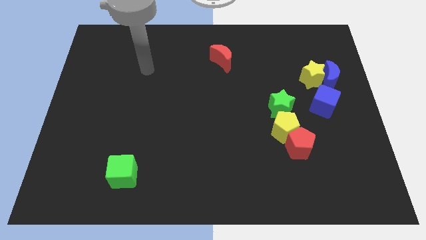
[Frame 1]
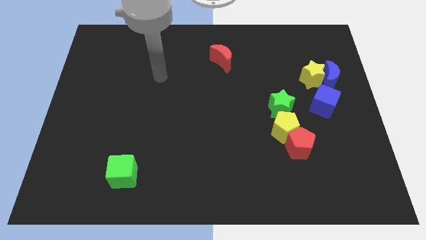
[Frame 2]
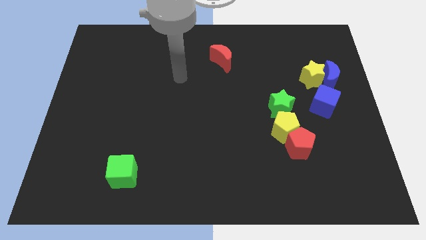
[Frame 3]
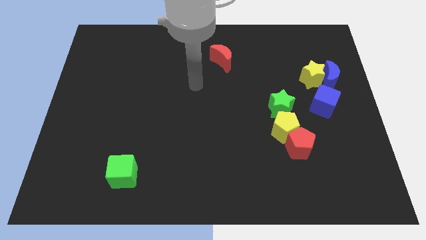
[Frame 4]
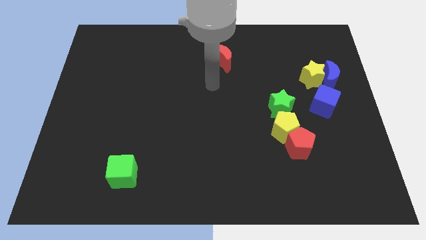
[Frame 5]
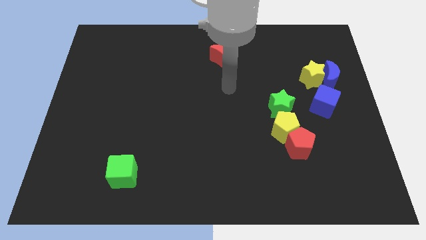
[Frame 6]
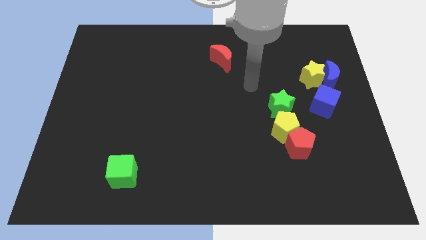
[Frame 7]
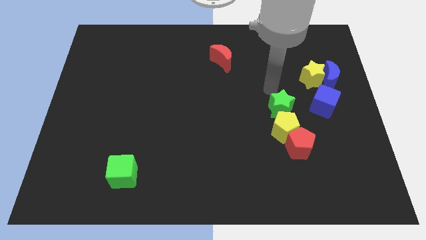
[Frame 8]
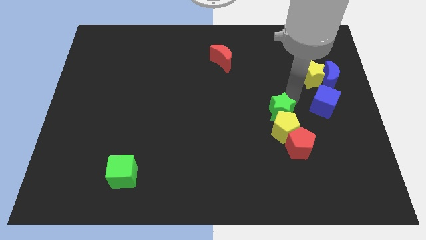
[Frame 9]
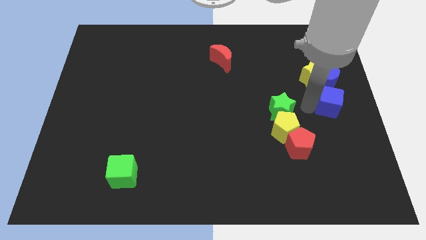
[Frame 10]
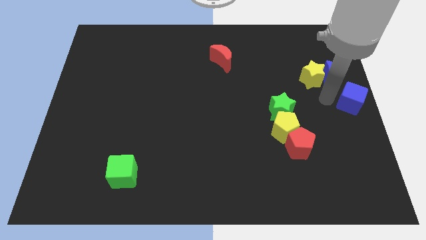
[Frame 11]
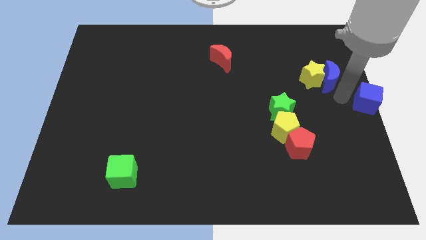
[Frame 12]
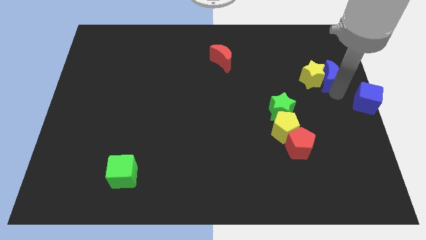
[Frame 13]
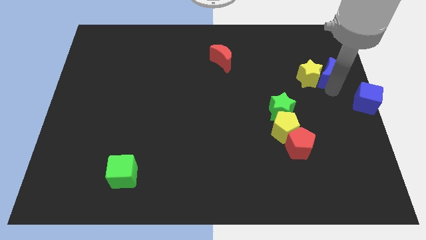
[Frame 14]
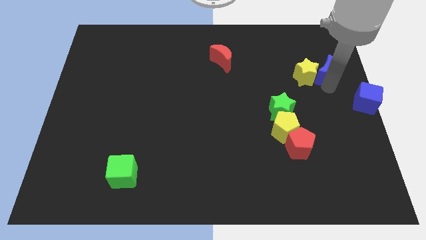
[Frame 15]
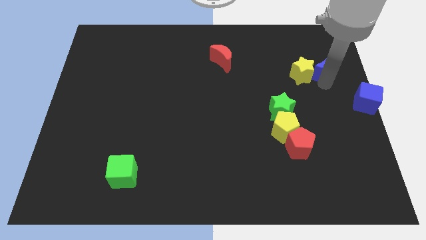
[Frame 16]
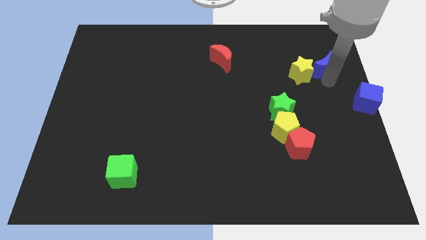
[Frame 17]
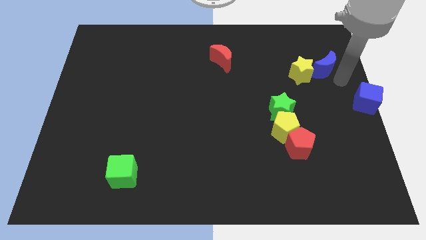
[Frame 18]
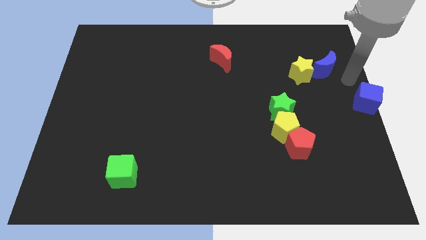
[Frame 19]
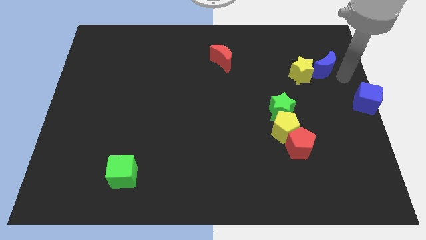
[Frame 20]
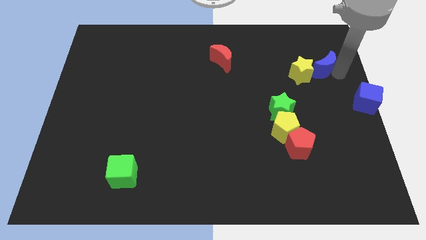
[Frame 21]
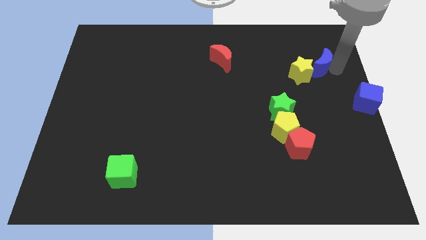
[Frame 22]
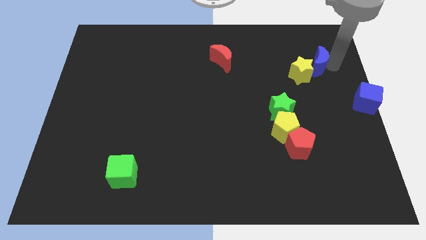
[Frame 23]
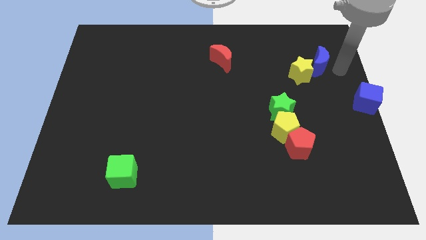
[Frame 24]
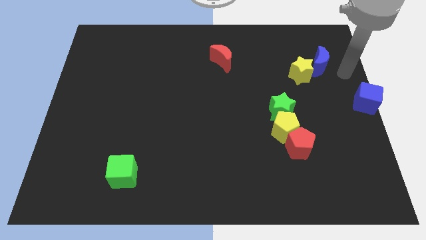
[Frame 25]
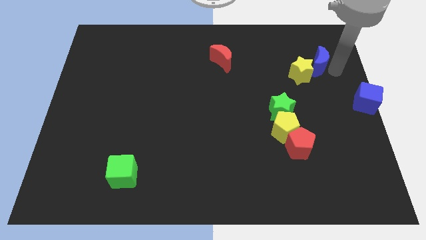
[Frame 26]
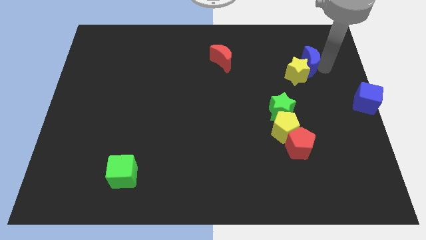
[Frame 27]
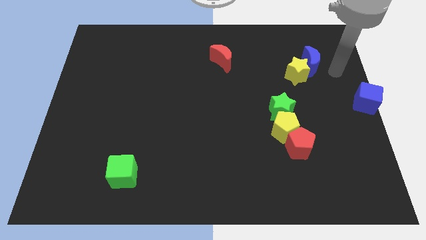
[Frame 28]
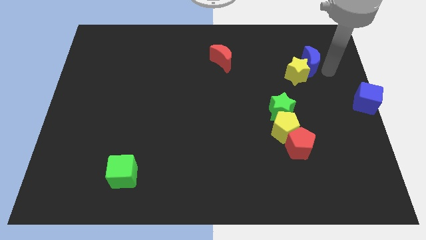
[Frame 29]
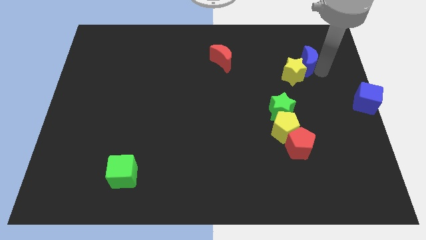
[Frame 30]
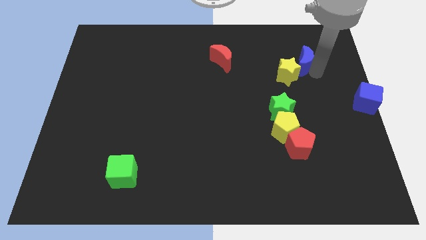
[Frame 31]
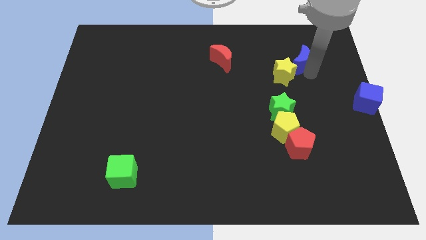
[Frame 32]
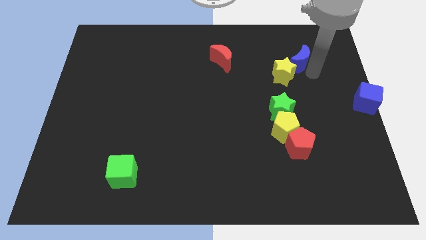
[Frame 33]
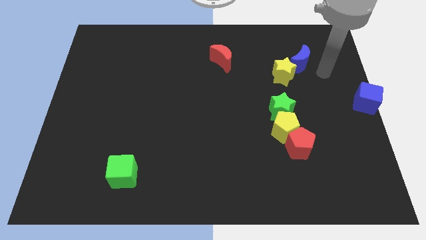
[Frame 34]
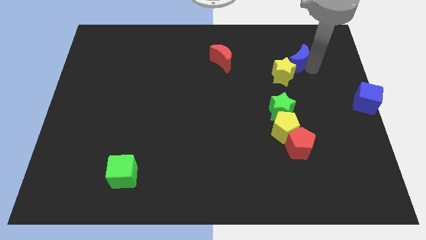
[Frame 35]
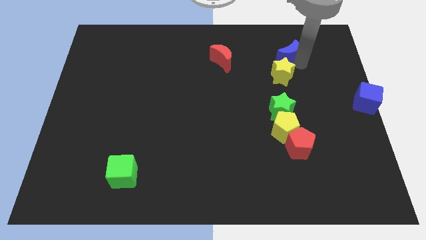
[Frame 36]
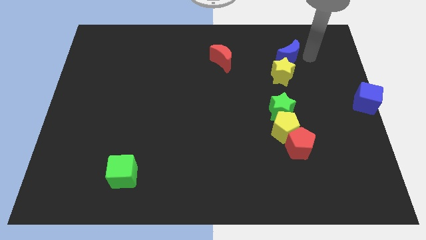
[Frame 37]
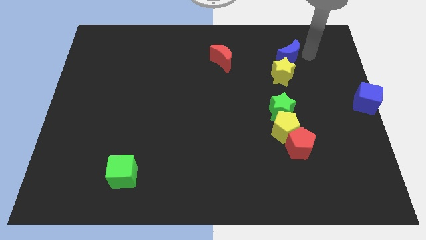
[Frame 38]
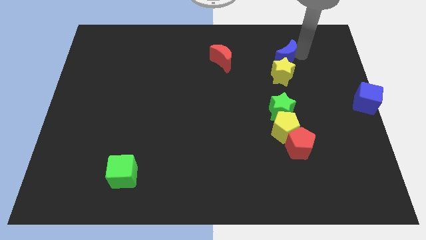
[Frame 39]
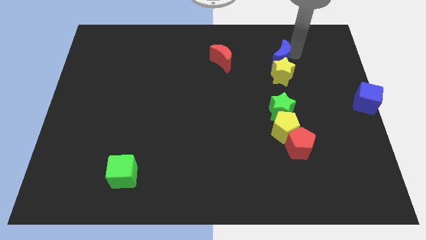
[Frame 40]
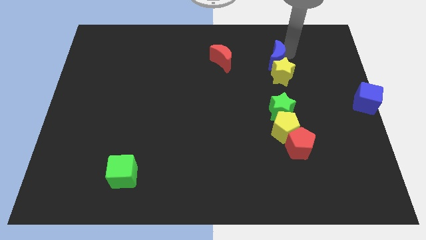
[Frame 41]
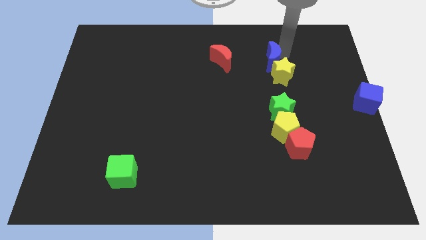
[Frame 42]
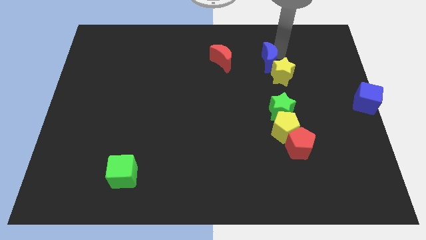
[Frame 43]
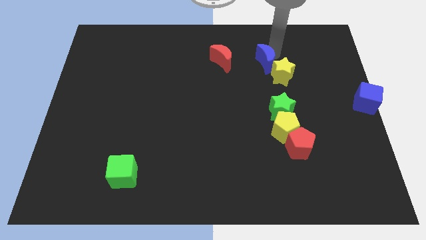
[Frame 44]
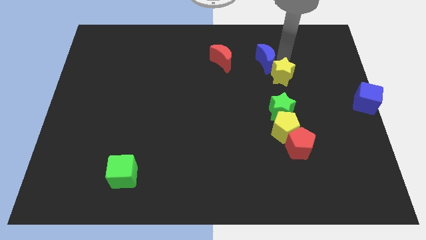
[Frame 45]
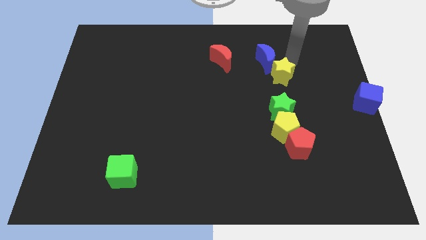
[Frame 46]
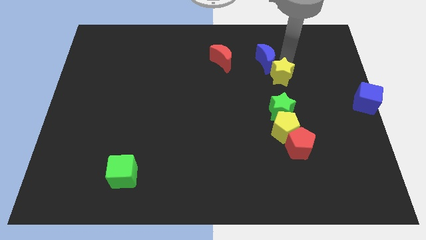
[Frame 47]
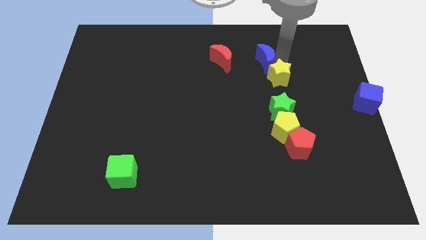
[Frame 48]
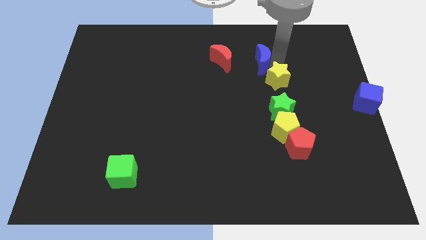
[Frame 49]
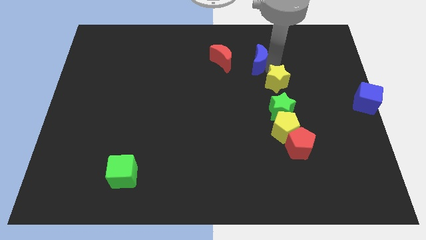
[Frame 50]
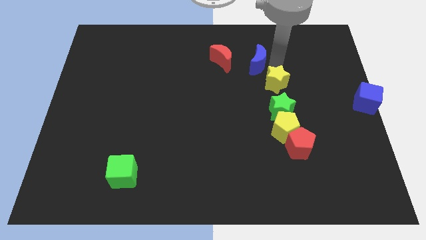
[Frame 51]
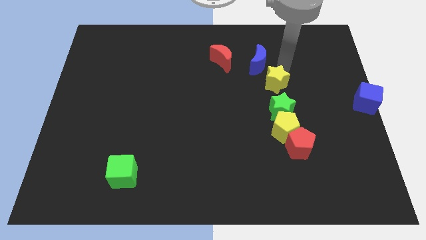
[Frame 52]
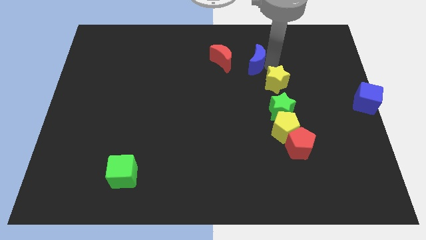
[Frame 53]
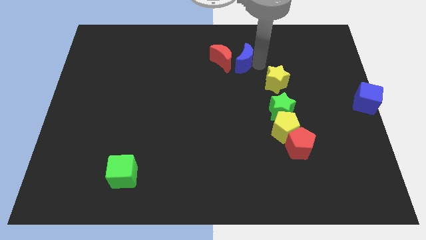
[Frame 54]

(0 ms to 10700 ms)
push the blue moon to the red moon

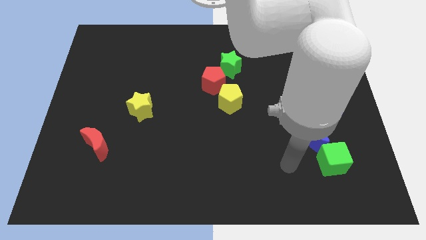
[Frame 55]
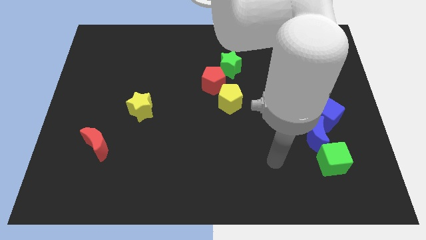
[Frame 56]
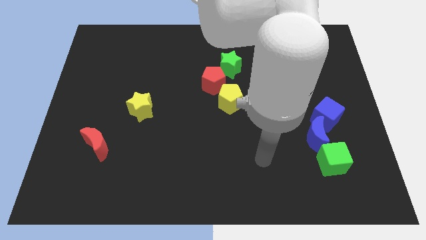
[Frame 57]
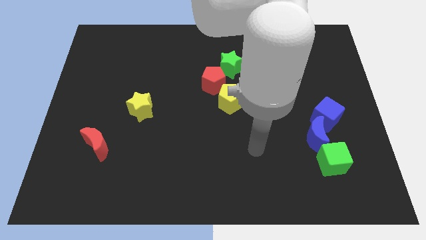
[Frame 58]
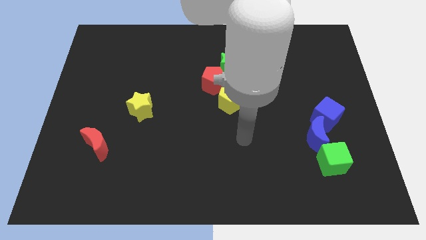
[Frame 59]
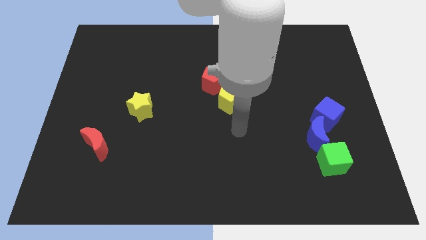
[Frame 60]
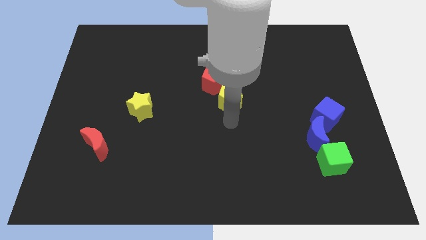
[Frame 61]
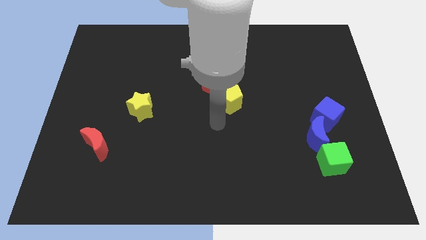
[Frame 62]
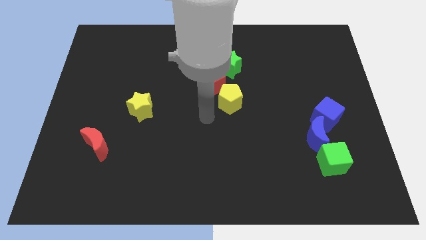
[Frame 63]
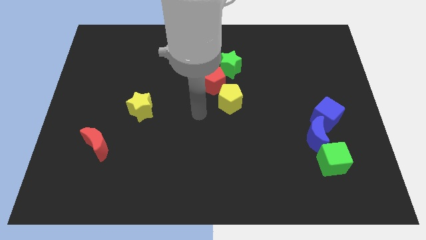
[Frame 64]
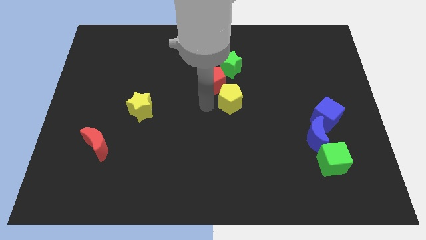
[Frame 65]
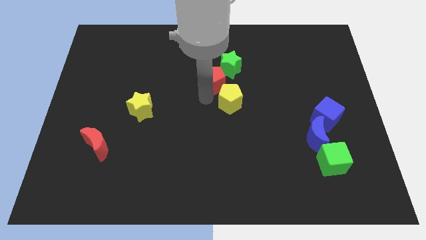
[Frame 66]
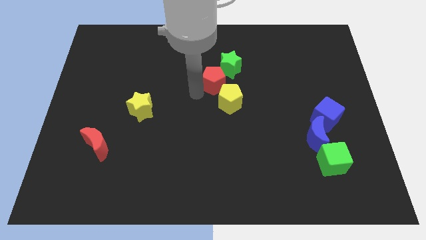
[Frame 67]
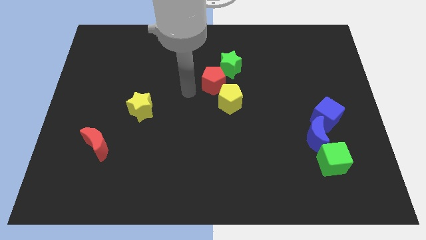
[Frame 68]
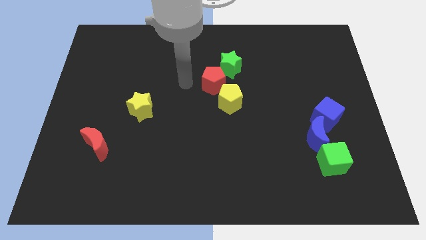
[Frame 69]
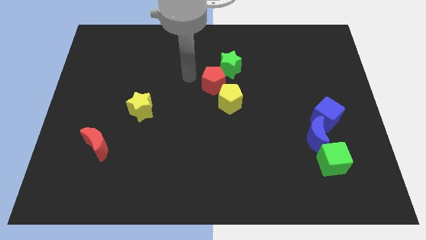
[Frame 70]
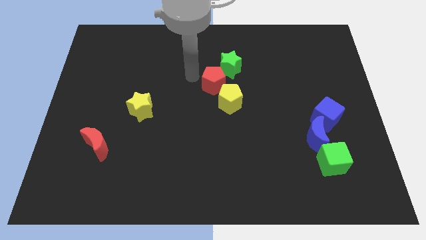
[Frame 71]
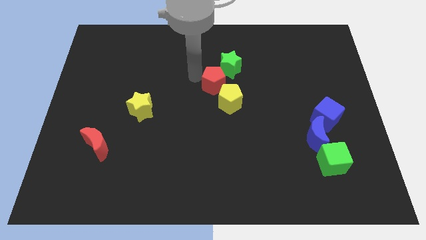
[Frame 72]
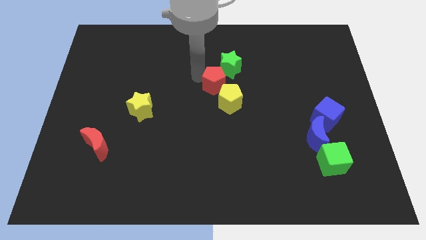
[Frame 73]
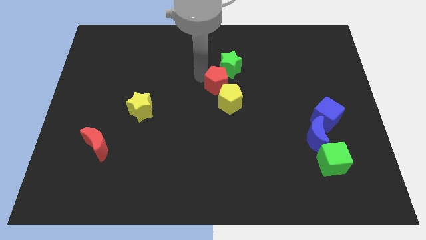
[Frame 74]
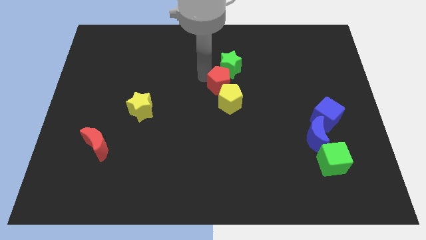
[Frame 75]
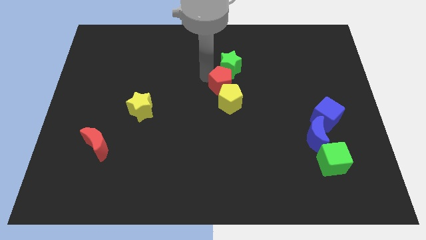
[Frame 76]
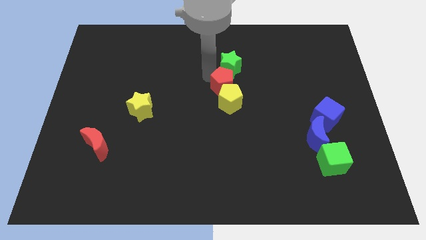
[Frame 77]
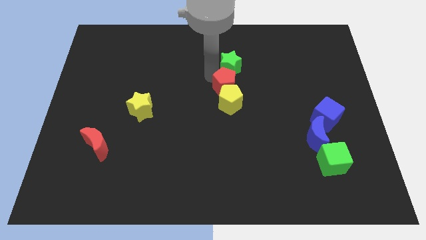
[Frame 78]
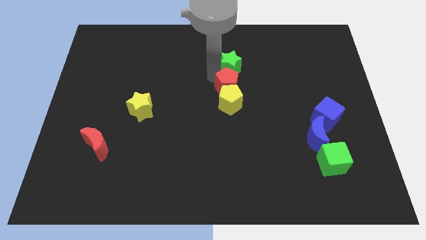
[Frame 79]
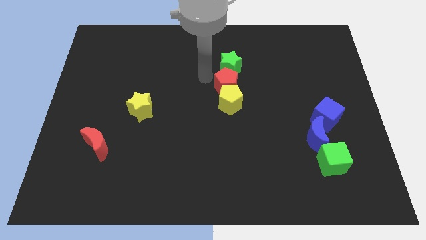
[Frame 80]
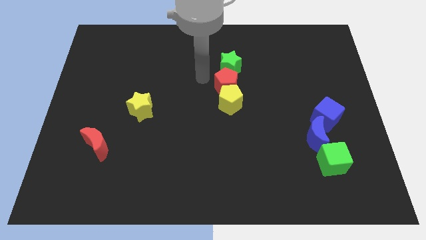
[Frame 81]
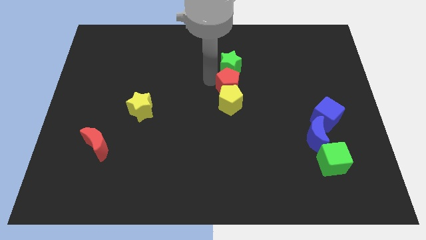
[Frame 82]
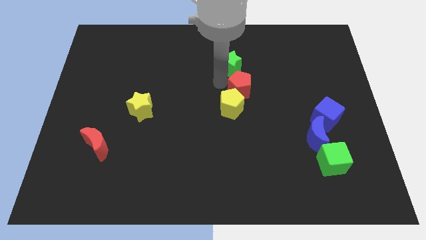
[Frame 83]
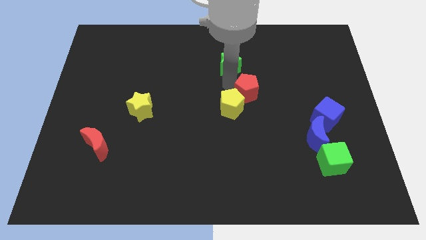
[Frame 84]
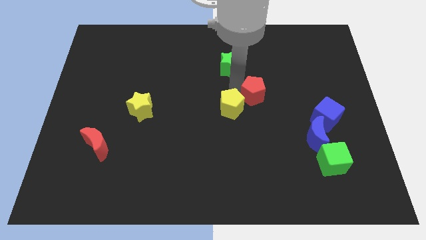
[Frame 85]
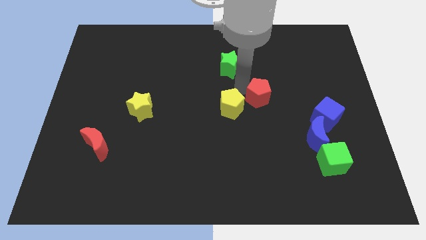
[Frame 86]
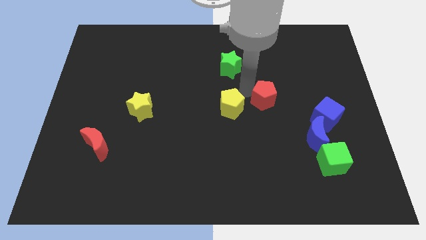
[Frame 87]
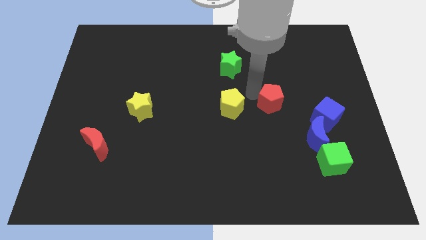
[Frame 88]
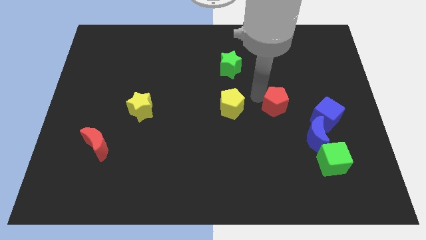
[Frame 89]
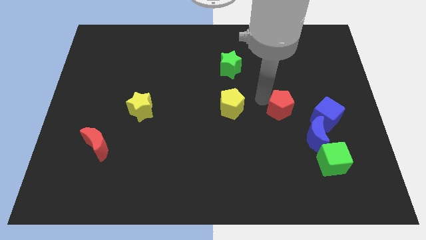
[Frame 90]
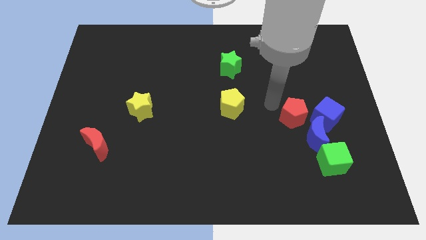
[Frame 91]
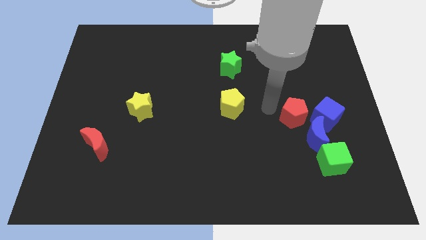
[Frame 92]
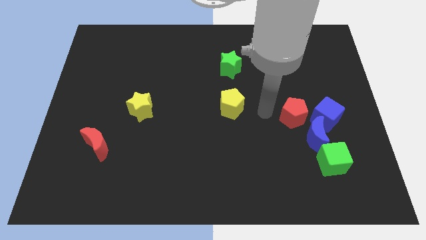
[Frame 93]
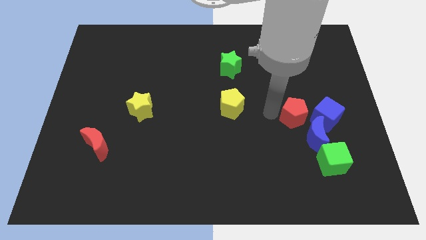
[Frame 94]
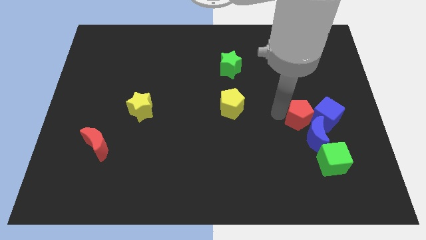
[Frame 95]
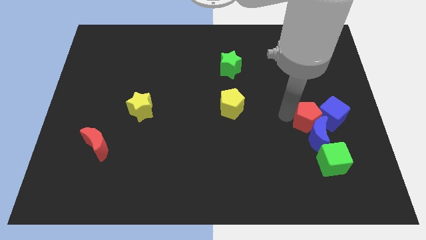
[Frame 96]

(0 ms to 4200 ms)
push the red pentagon close to the blue cube
